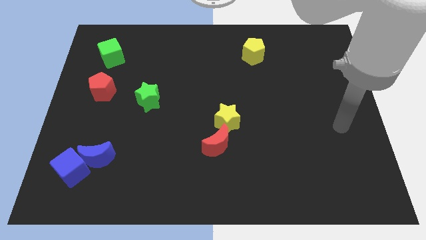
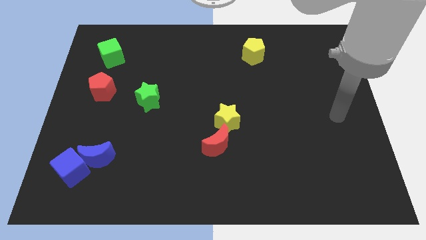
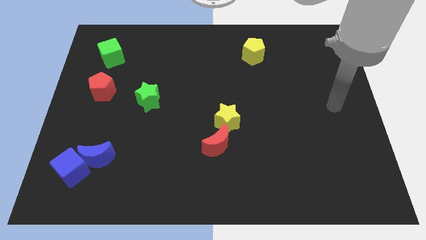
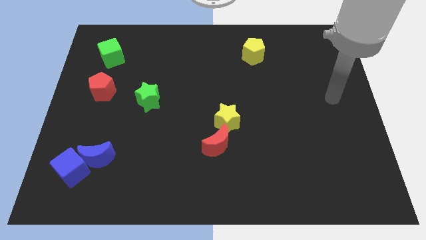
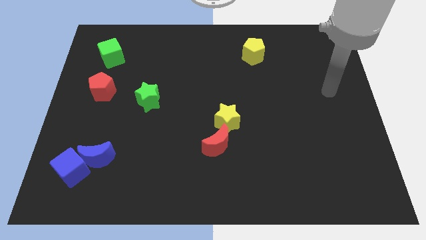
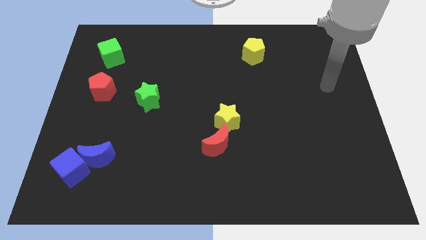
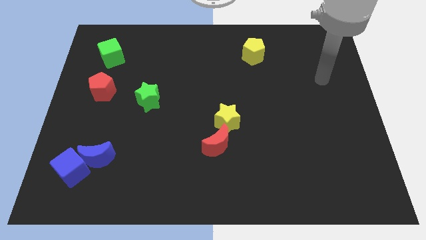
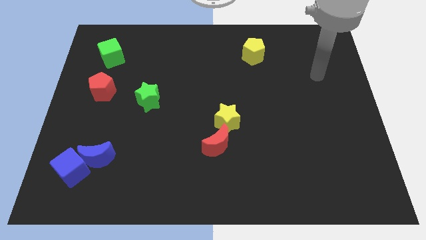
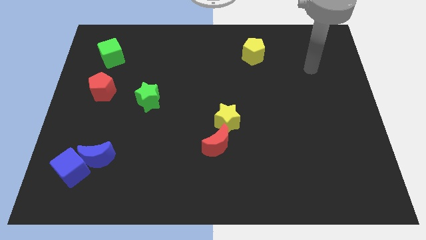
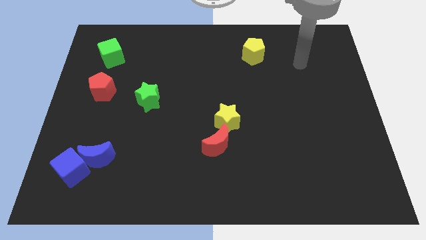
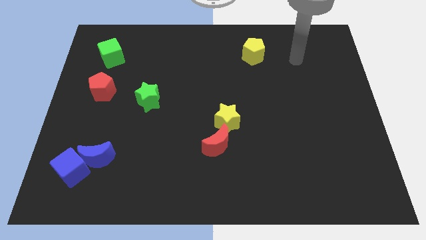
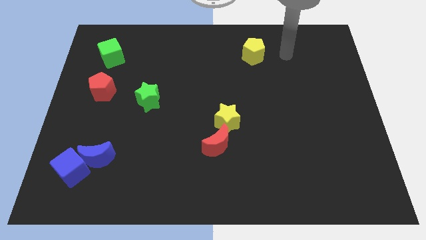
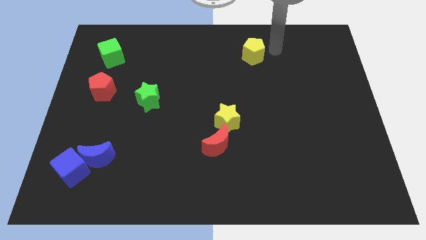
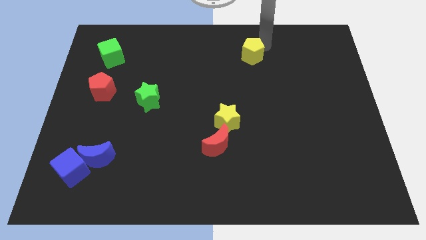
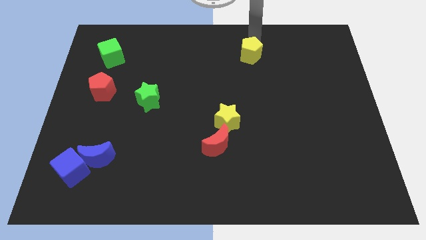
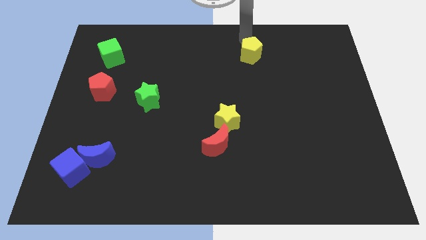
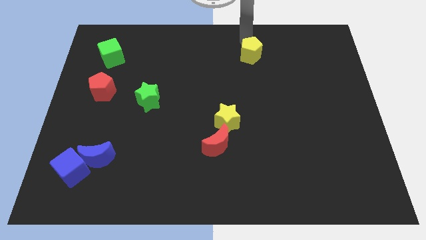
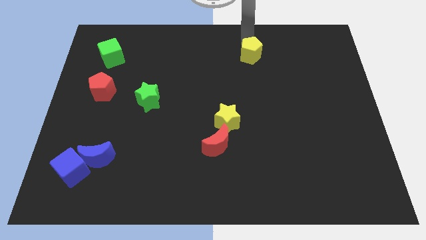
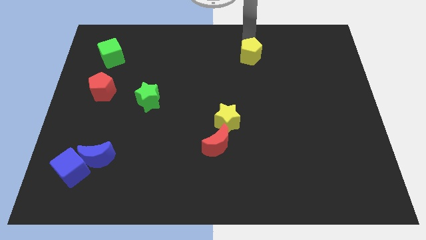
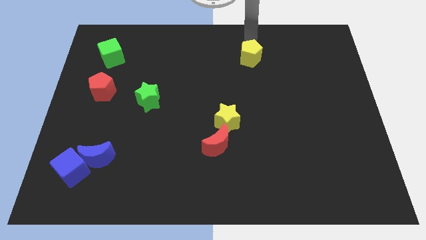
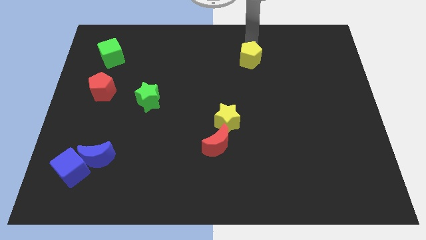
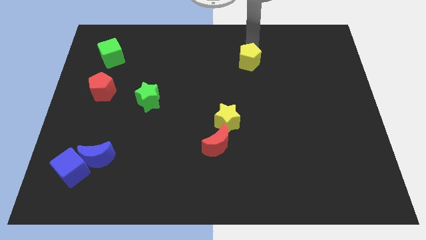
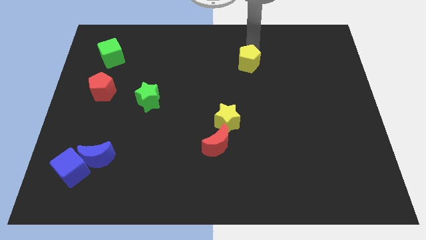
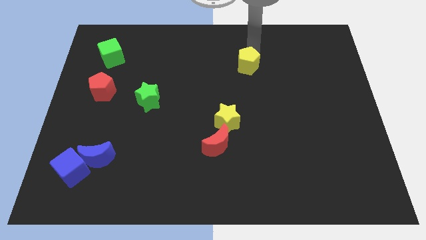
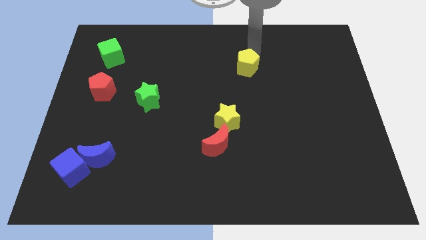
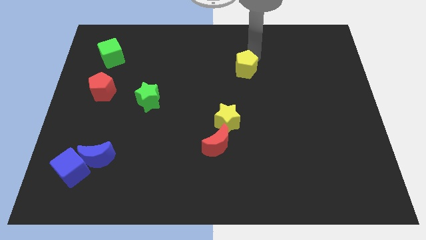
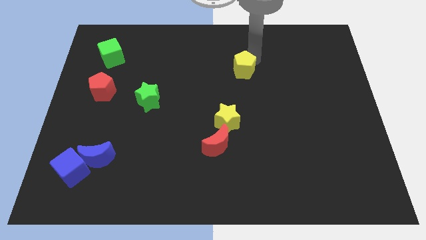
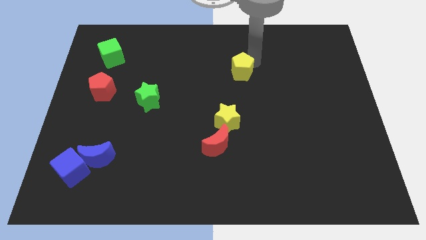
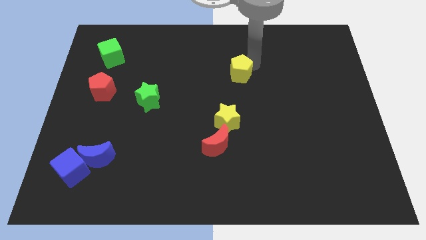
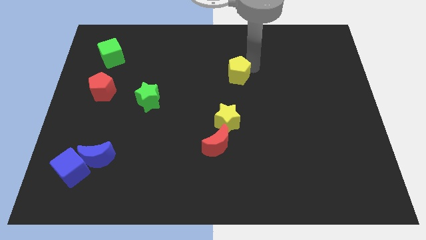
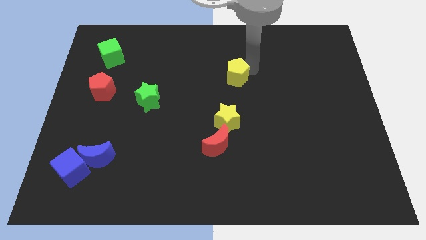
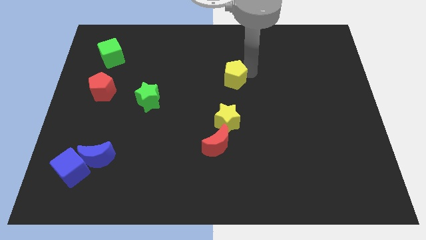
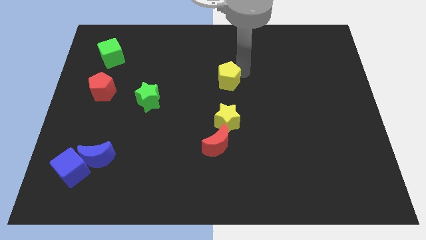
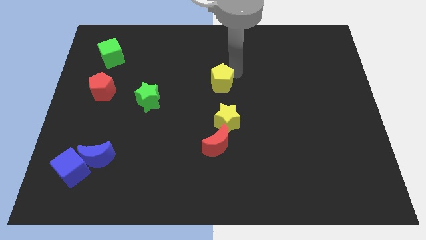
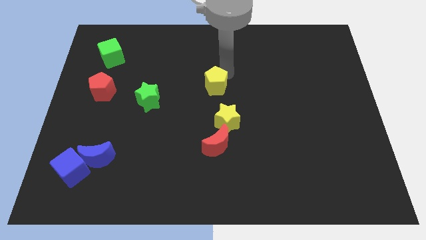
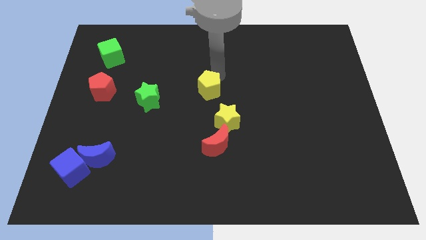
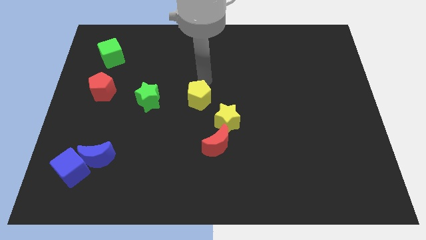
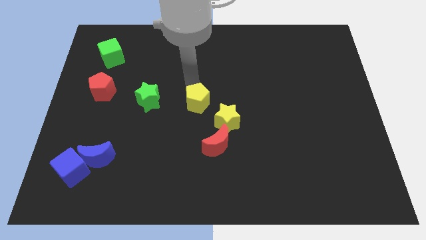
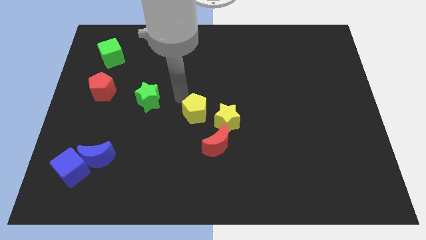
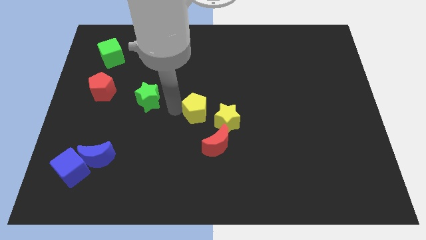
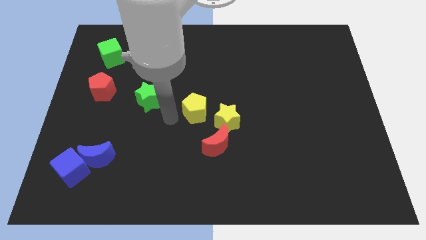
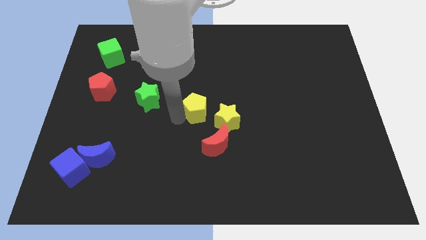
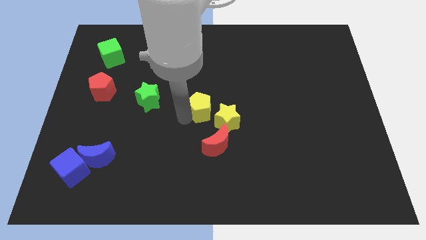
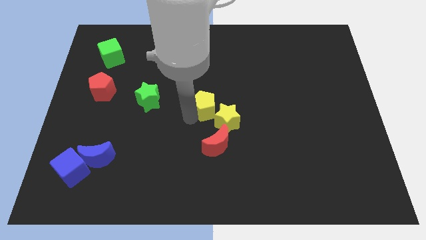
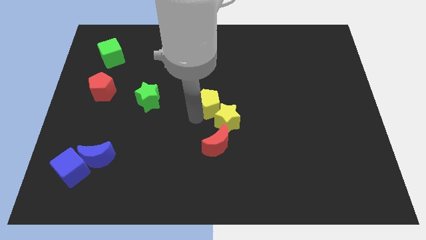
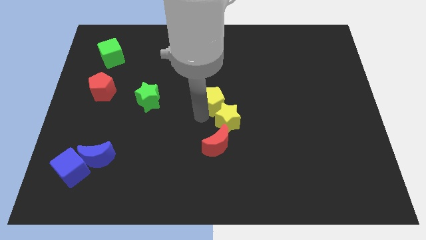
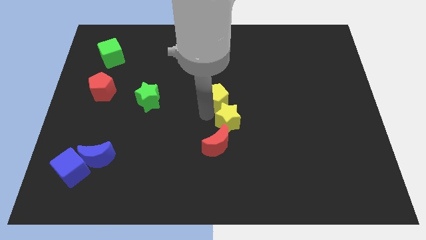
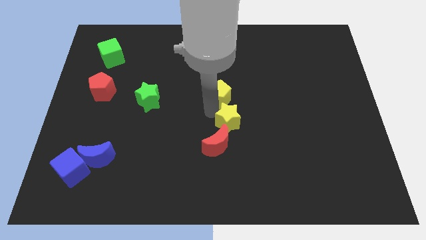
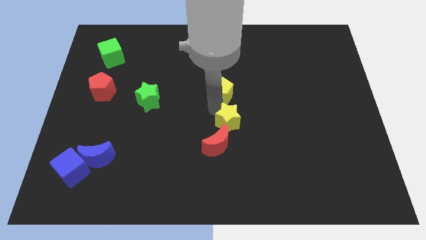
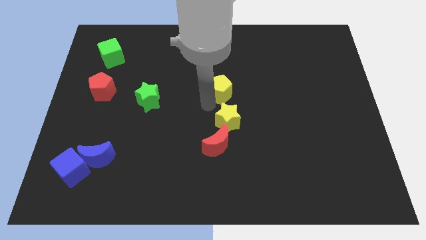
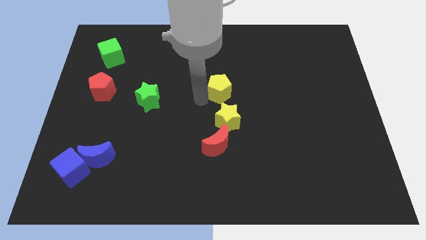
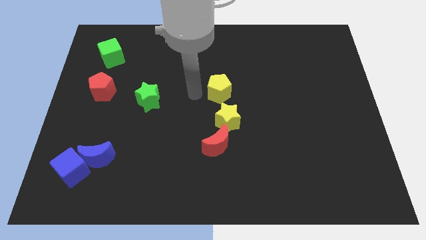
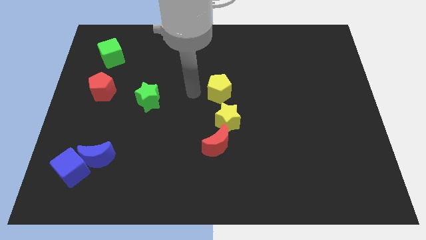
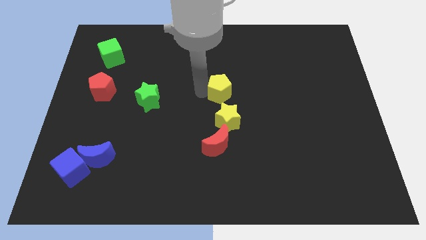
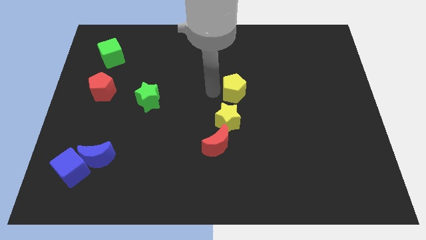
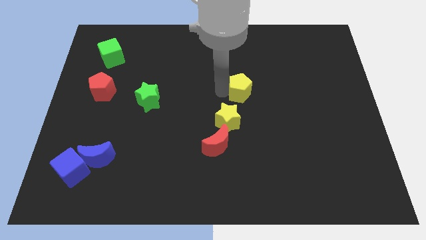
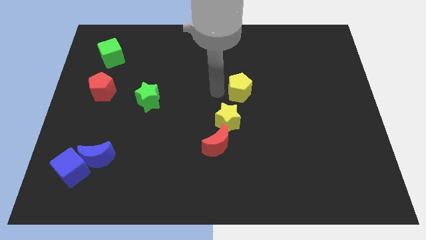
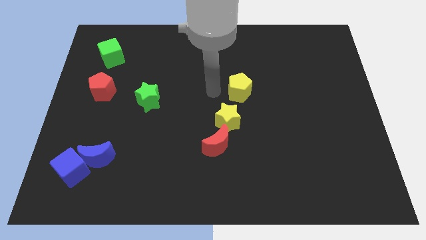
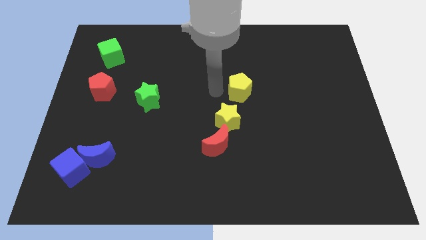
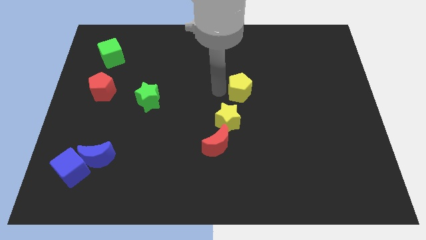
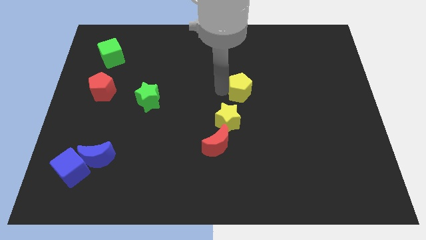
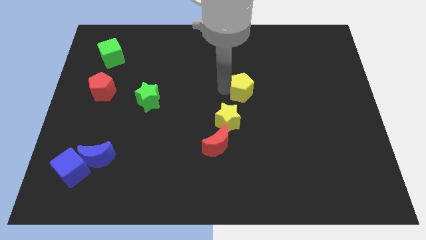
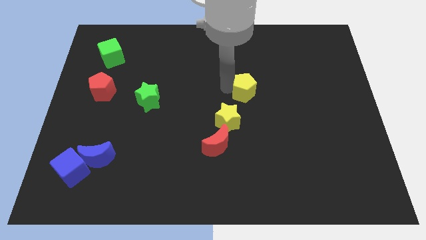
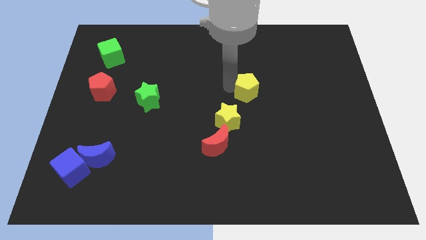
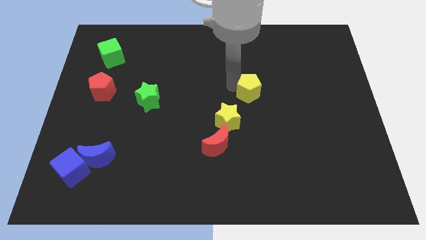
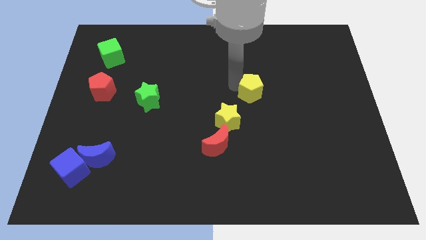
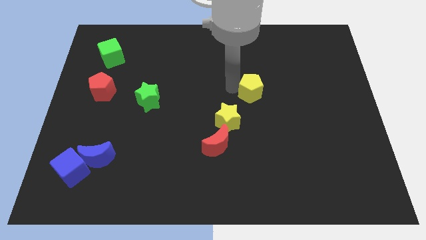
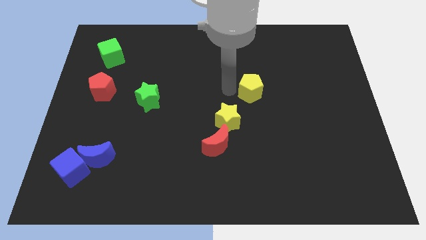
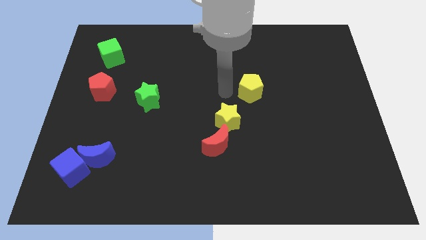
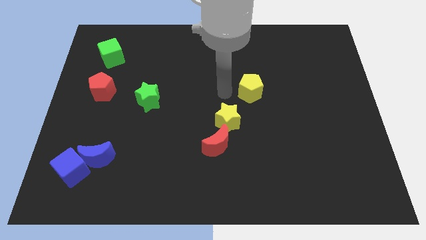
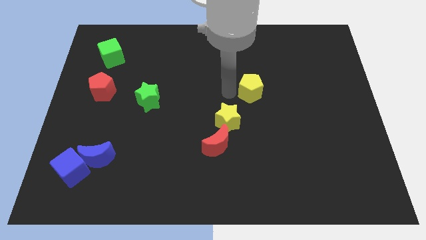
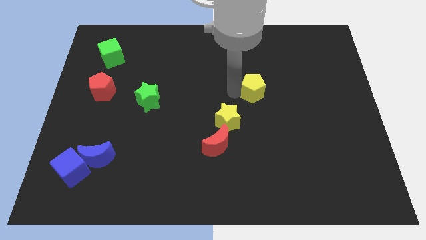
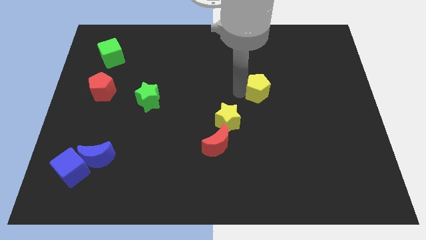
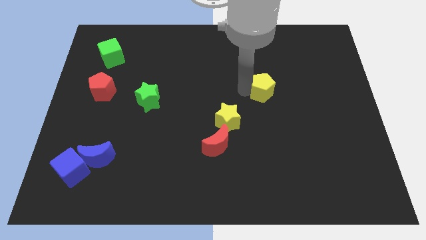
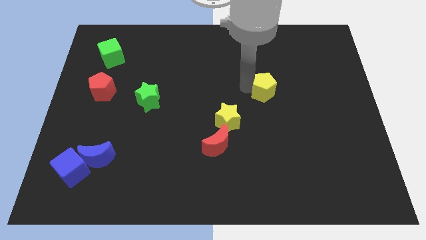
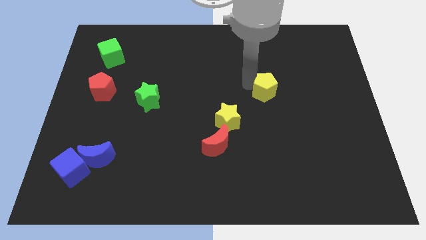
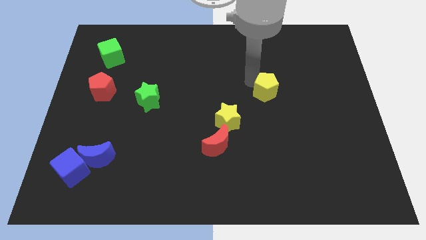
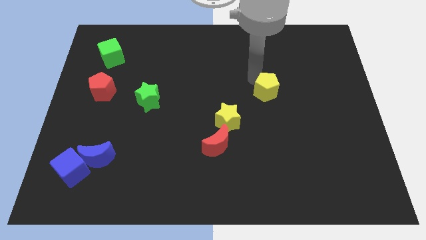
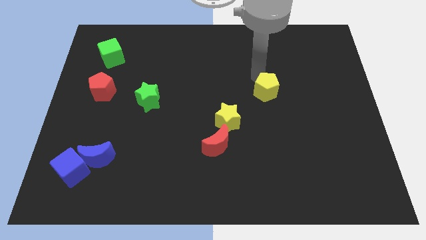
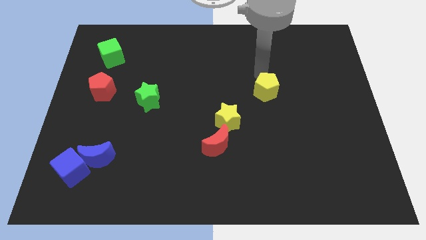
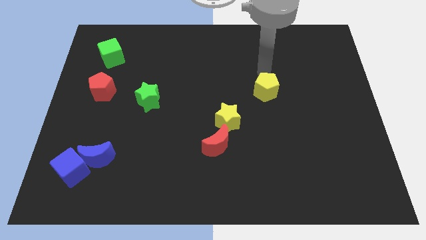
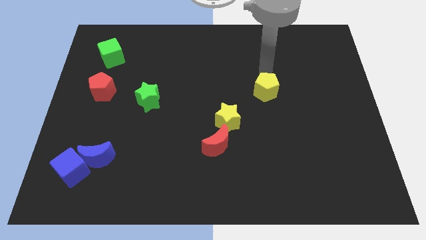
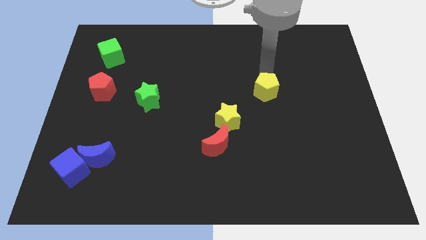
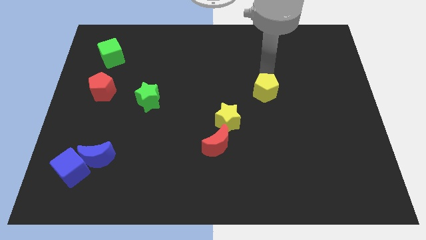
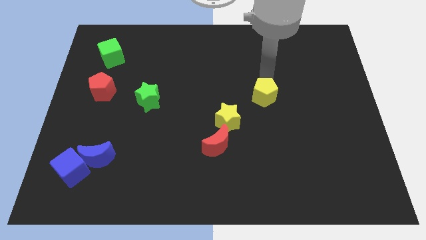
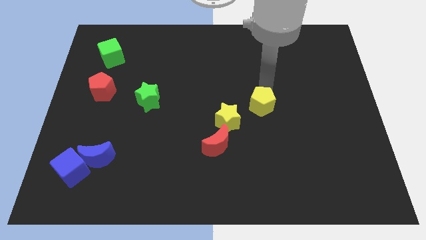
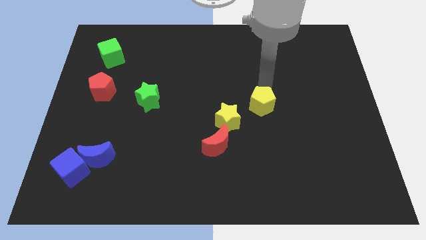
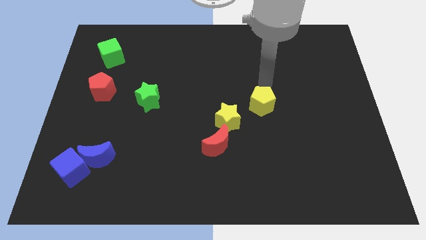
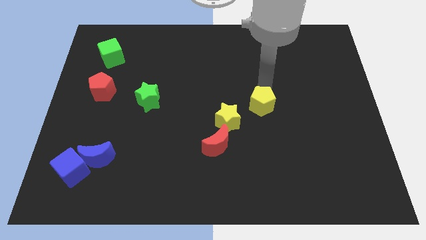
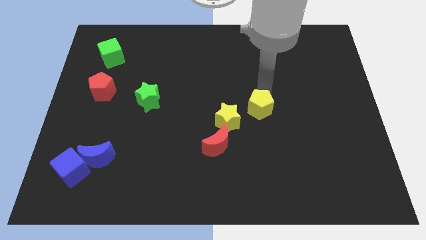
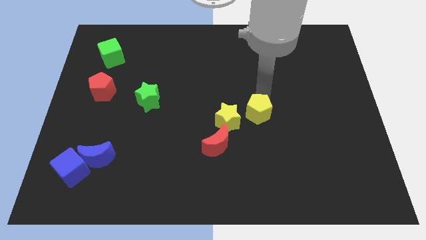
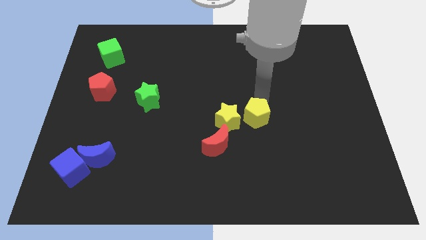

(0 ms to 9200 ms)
move the yellow pentagon downwards
